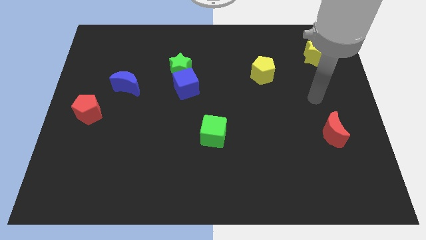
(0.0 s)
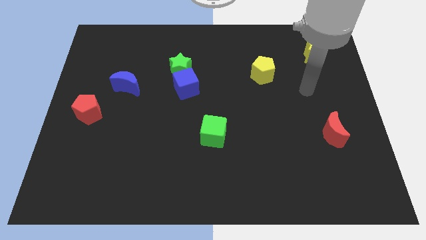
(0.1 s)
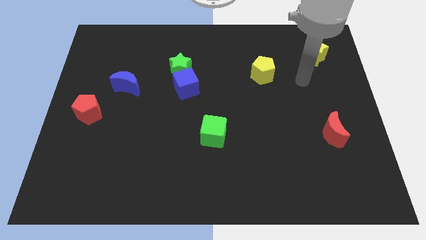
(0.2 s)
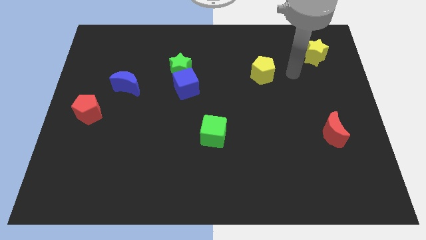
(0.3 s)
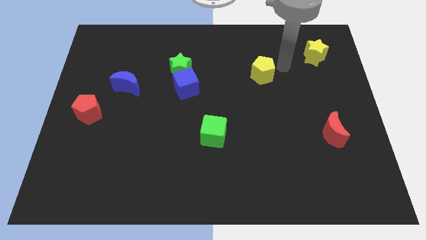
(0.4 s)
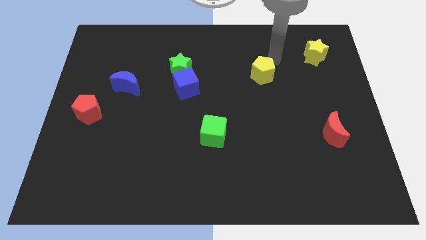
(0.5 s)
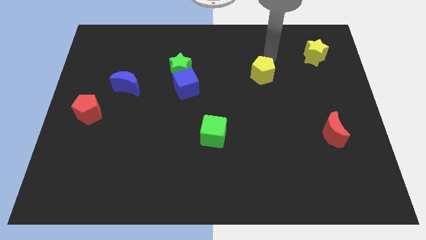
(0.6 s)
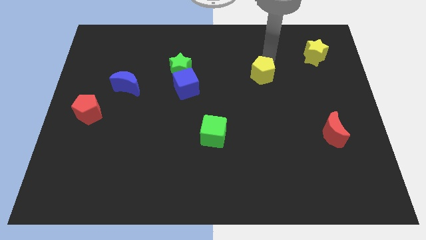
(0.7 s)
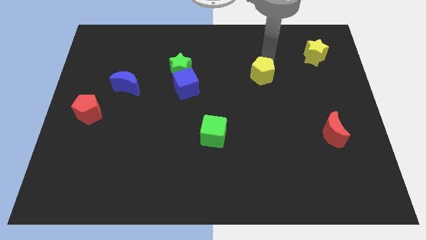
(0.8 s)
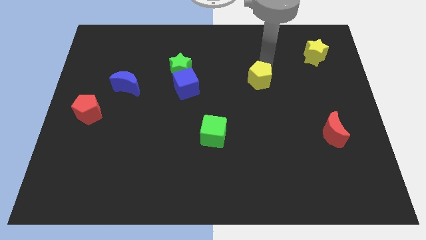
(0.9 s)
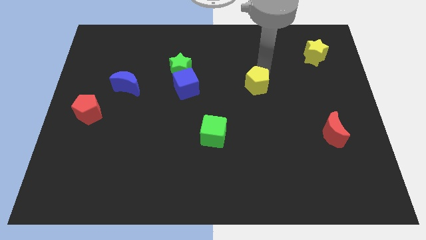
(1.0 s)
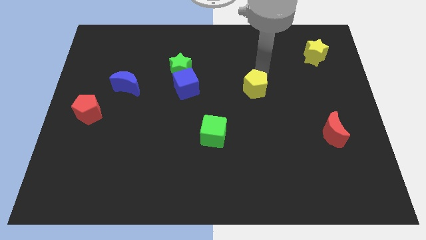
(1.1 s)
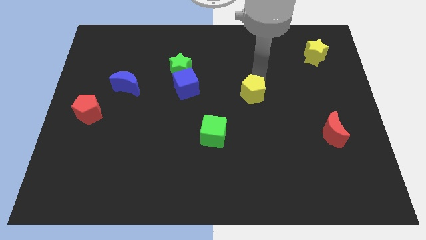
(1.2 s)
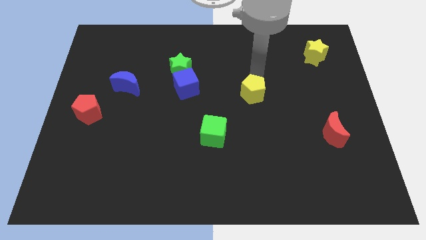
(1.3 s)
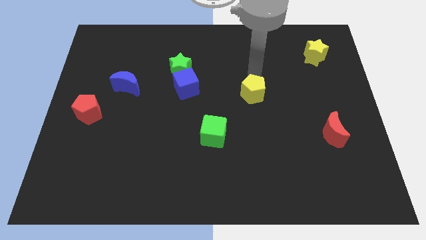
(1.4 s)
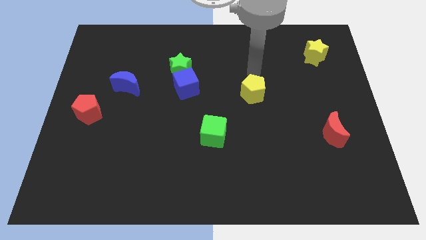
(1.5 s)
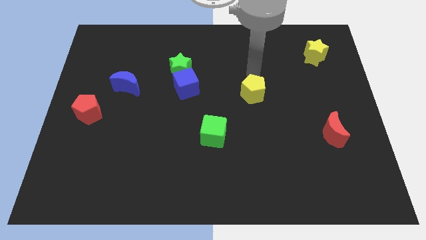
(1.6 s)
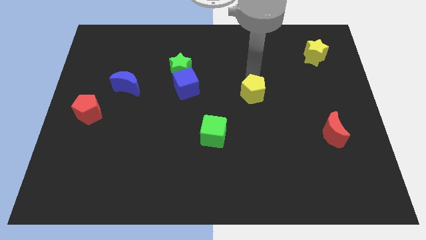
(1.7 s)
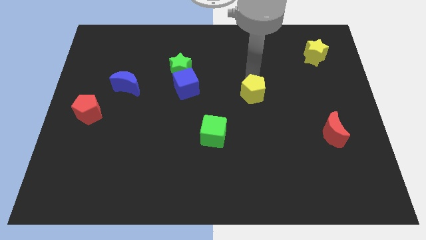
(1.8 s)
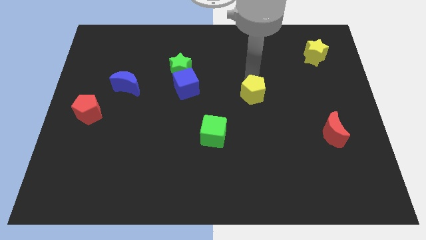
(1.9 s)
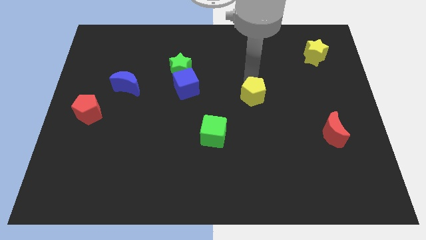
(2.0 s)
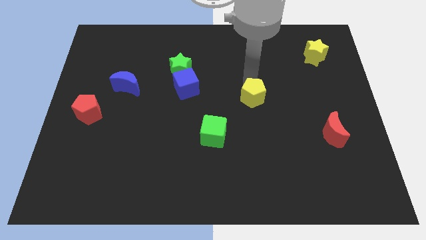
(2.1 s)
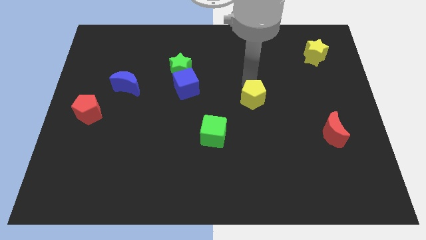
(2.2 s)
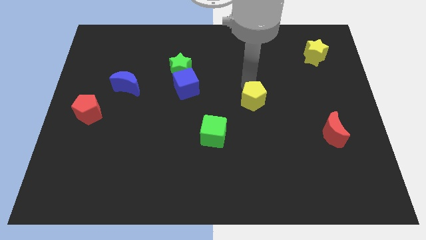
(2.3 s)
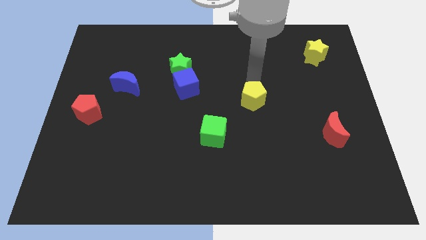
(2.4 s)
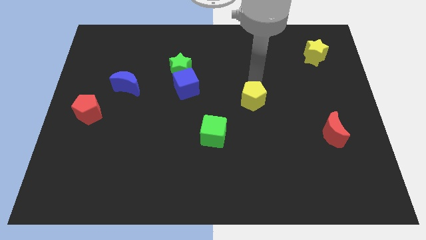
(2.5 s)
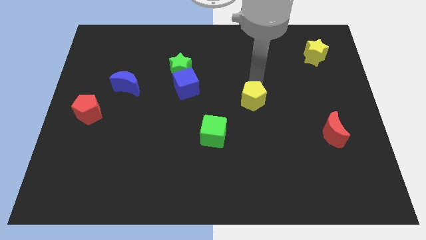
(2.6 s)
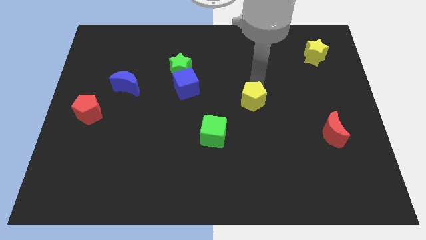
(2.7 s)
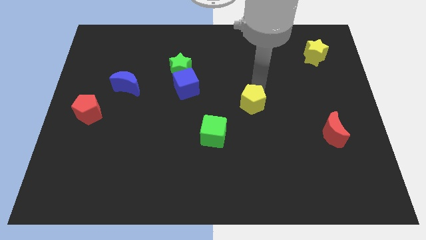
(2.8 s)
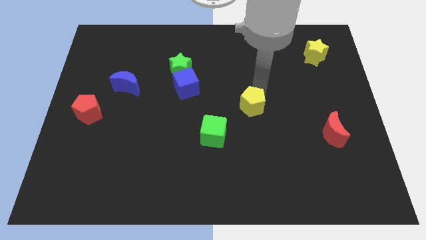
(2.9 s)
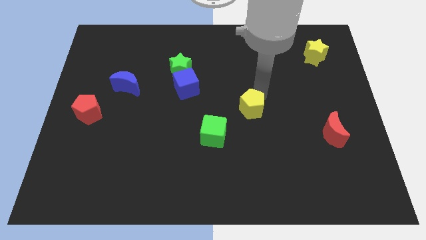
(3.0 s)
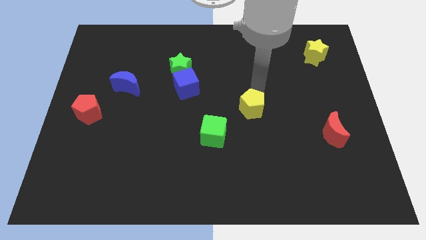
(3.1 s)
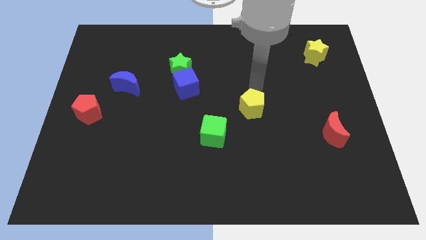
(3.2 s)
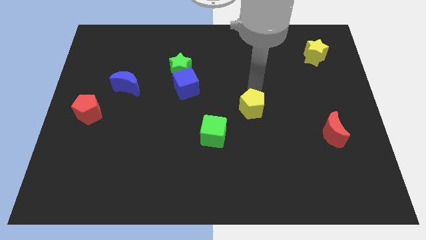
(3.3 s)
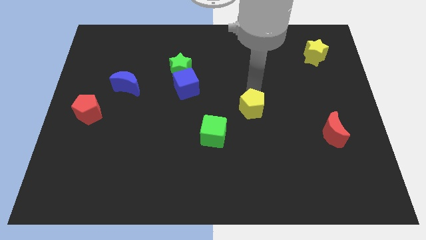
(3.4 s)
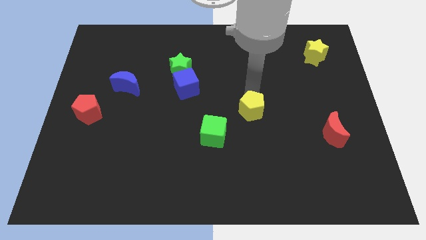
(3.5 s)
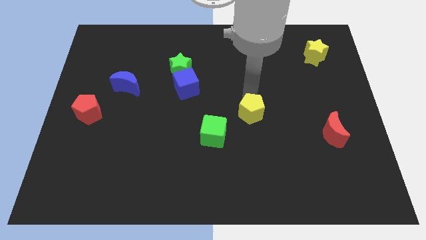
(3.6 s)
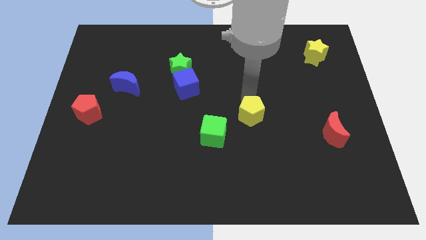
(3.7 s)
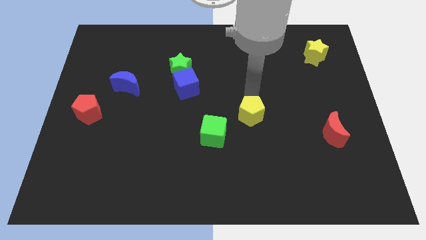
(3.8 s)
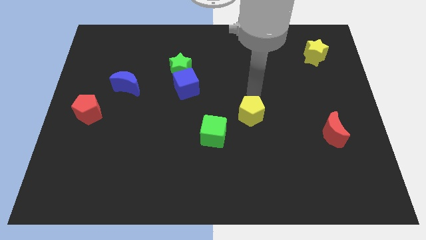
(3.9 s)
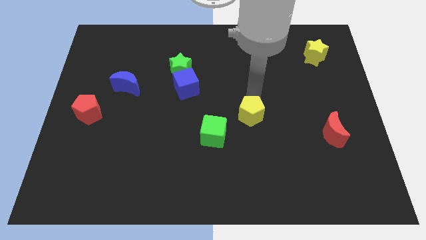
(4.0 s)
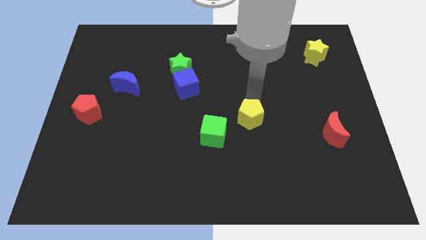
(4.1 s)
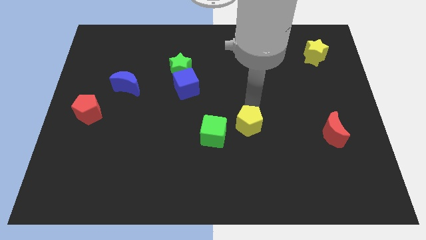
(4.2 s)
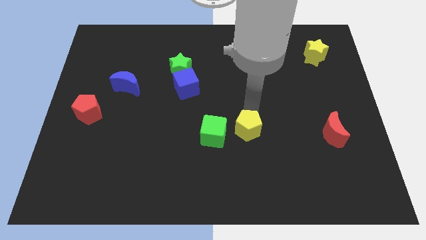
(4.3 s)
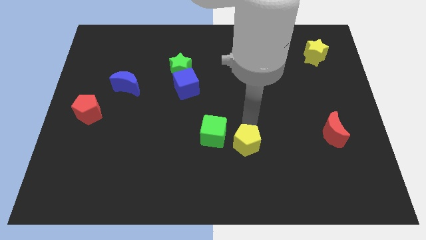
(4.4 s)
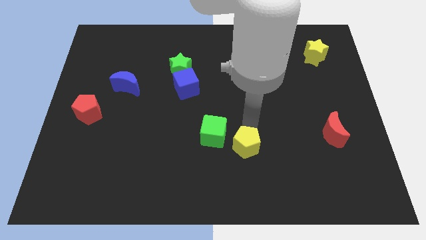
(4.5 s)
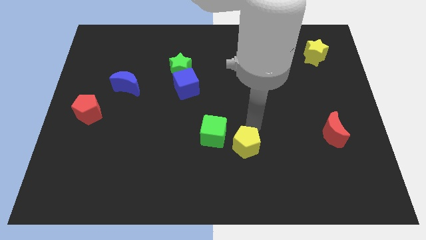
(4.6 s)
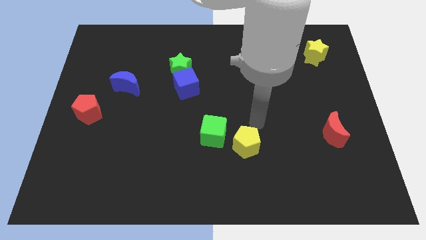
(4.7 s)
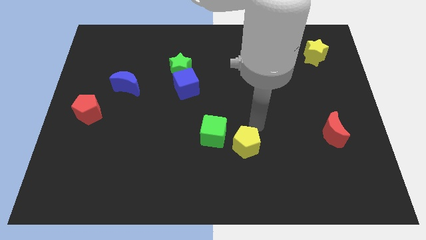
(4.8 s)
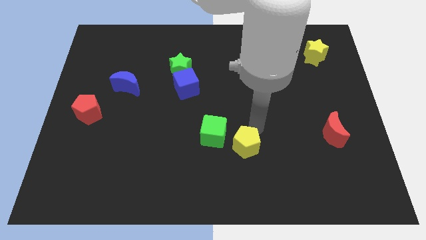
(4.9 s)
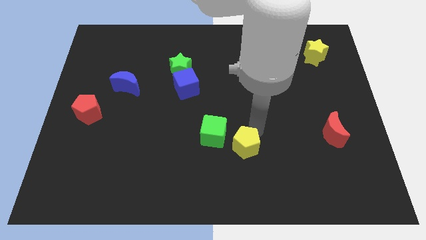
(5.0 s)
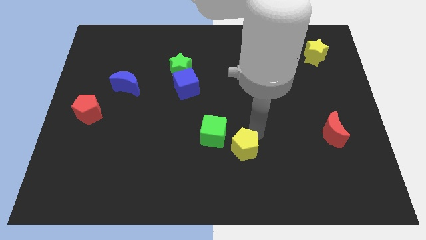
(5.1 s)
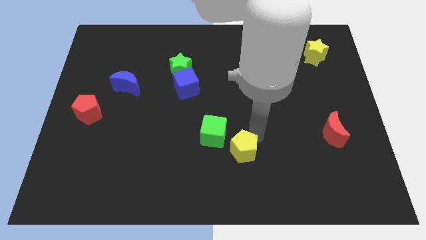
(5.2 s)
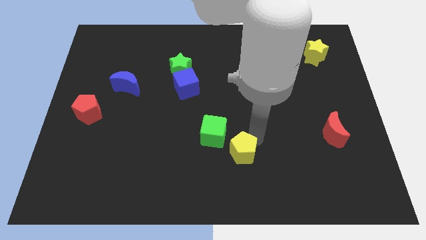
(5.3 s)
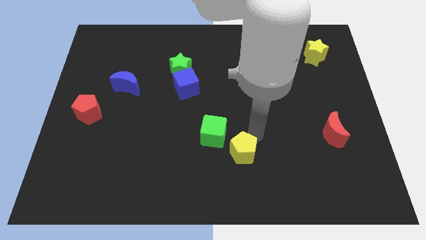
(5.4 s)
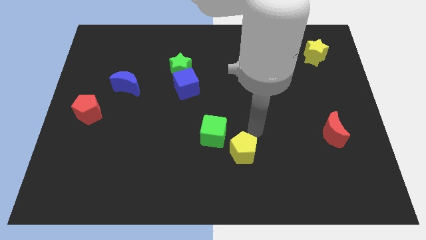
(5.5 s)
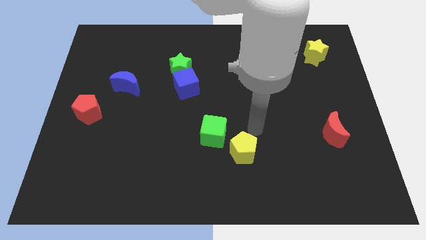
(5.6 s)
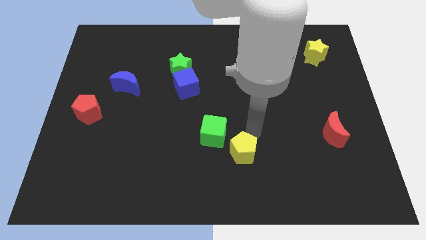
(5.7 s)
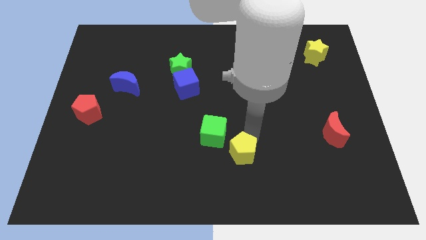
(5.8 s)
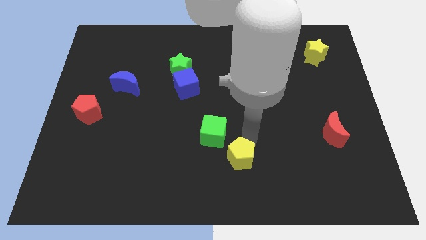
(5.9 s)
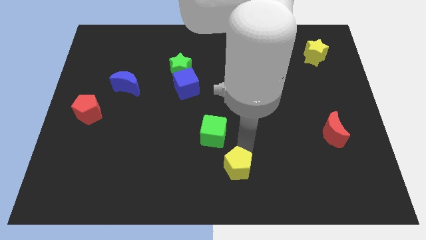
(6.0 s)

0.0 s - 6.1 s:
put the yellow pentagon to the bottom side

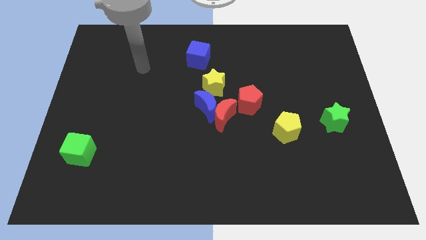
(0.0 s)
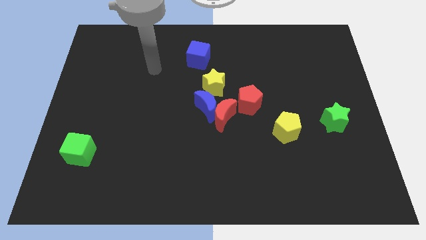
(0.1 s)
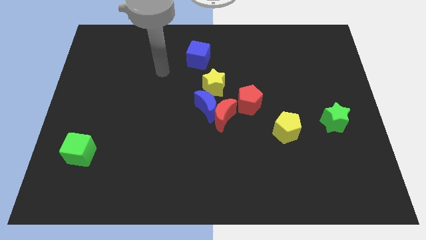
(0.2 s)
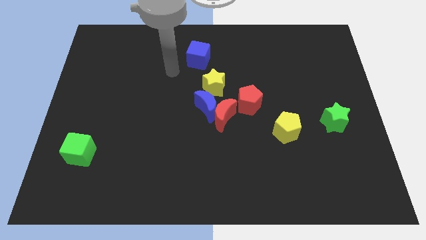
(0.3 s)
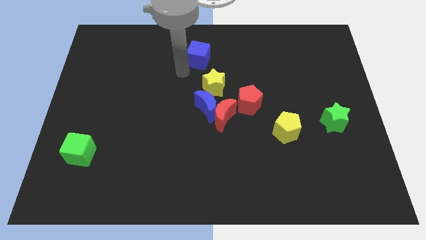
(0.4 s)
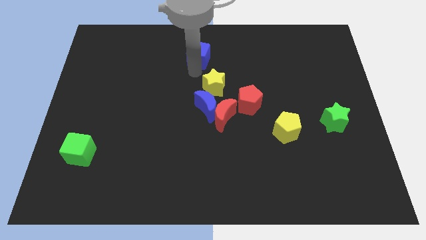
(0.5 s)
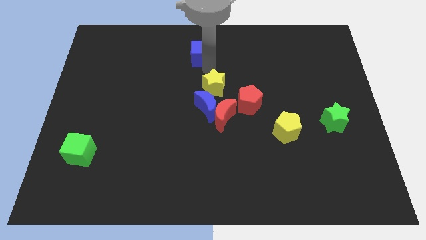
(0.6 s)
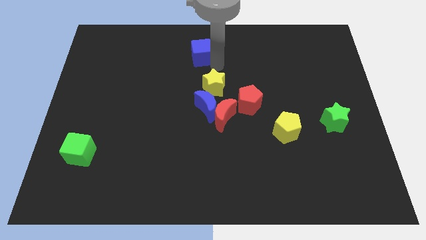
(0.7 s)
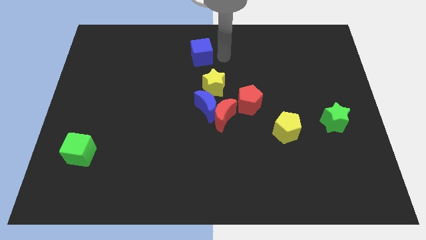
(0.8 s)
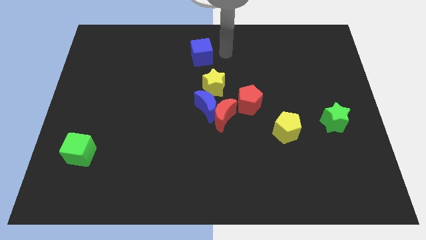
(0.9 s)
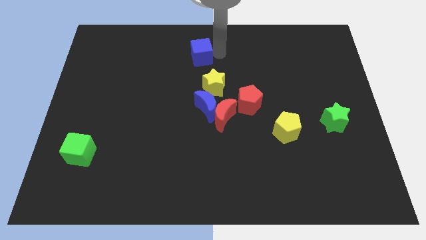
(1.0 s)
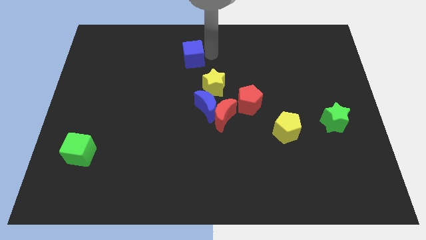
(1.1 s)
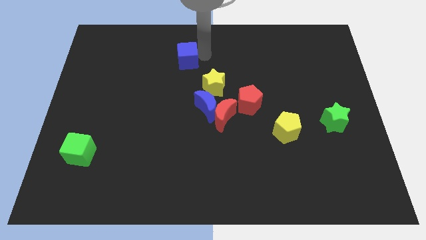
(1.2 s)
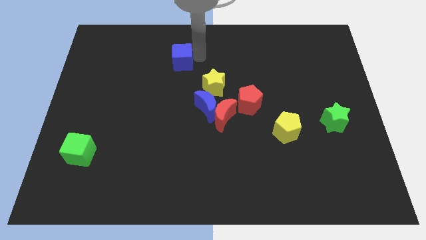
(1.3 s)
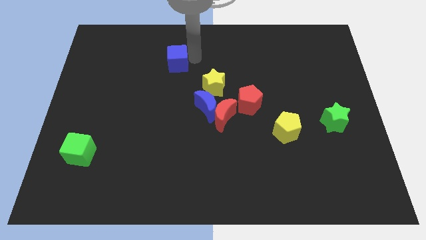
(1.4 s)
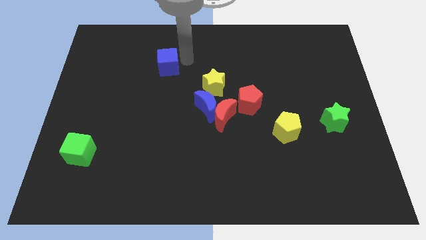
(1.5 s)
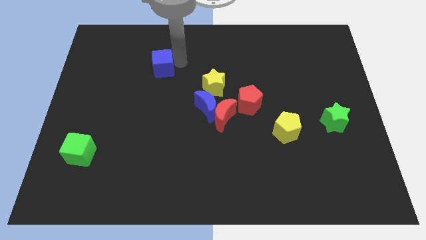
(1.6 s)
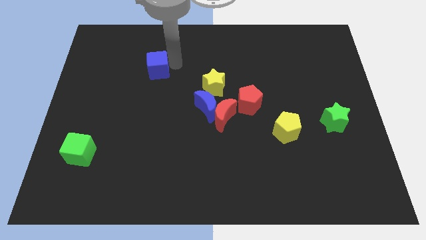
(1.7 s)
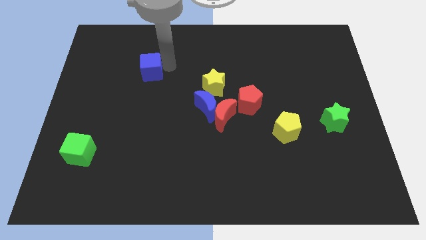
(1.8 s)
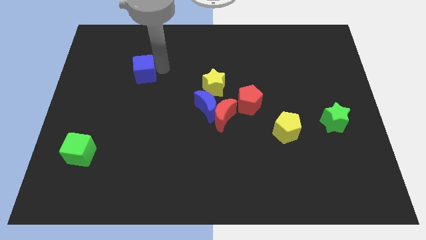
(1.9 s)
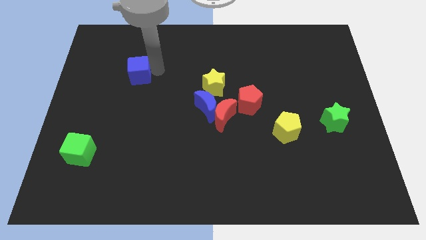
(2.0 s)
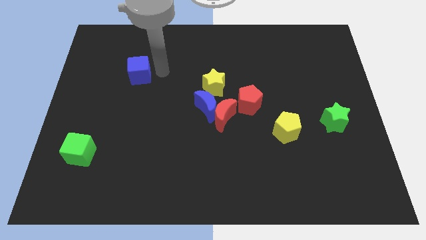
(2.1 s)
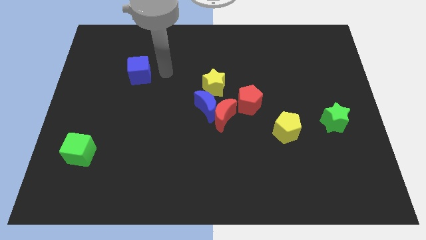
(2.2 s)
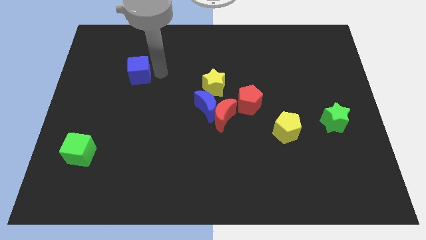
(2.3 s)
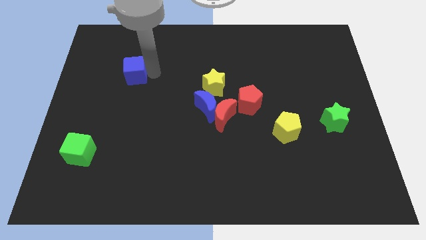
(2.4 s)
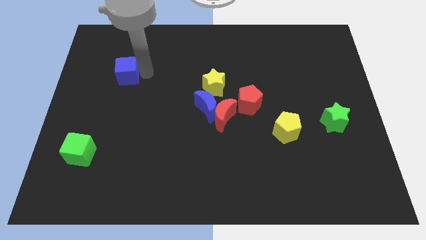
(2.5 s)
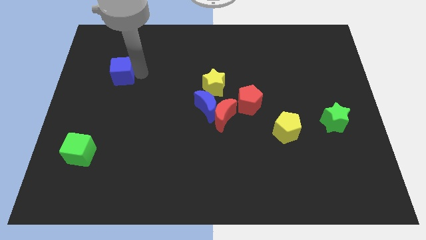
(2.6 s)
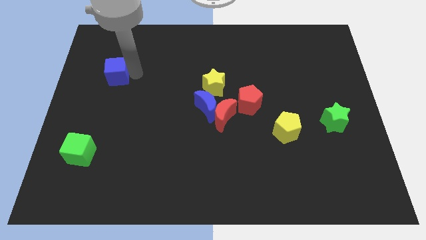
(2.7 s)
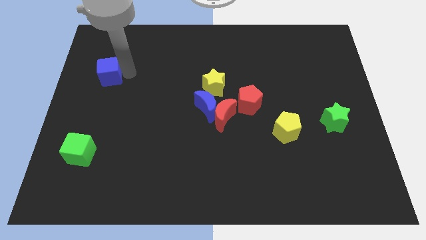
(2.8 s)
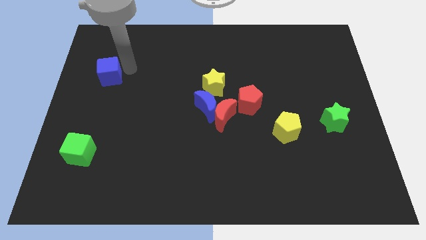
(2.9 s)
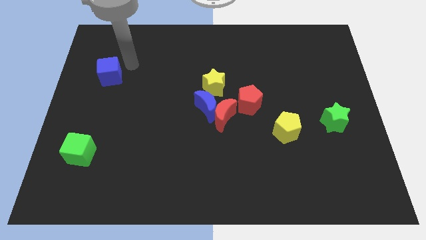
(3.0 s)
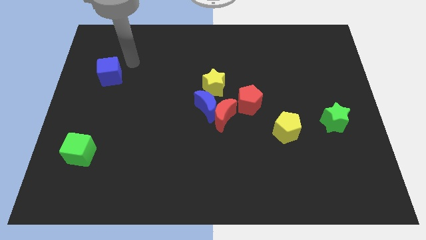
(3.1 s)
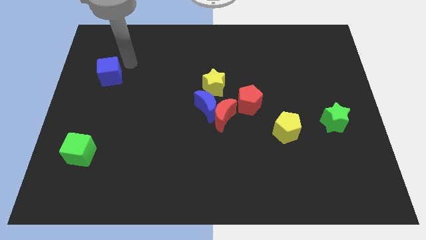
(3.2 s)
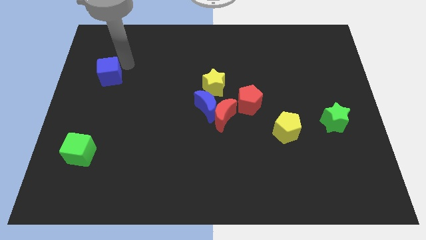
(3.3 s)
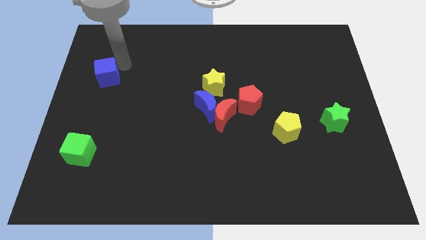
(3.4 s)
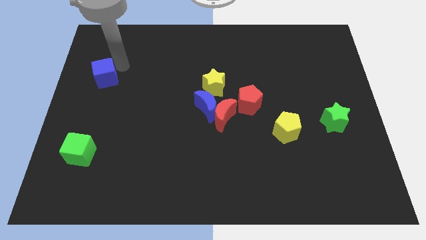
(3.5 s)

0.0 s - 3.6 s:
move the blue cube to the center left
